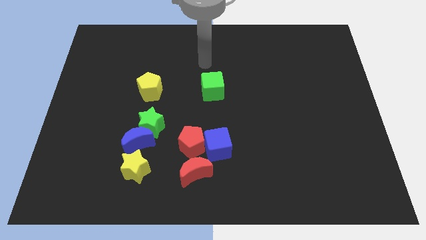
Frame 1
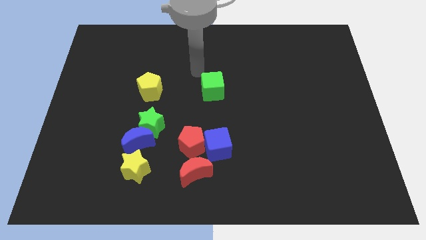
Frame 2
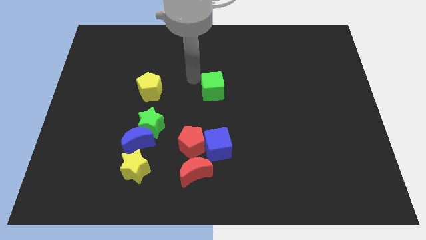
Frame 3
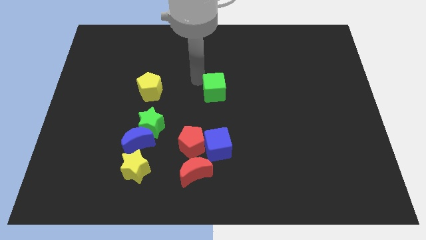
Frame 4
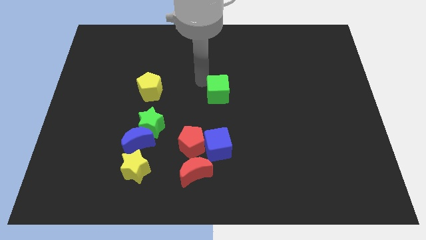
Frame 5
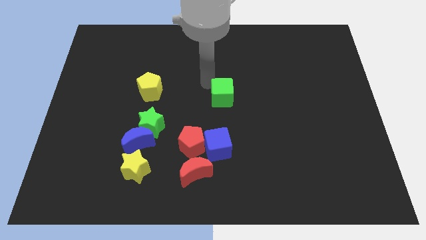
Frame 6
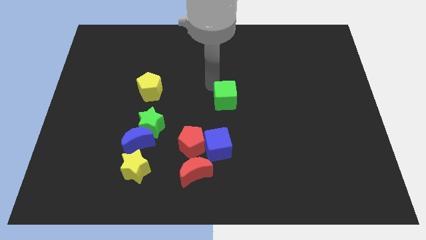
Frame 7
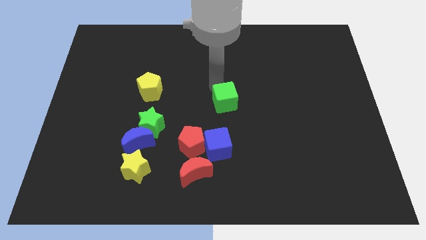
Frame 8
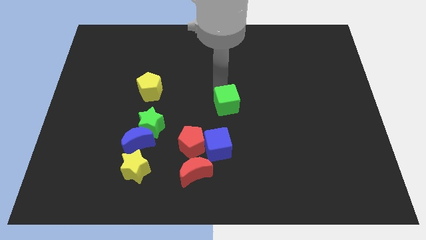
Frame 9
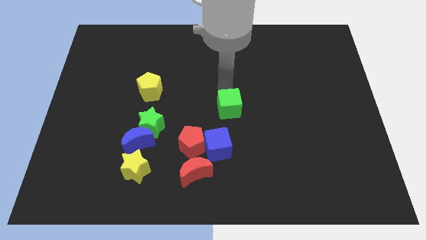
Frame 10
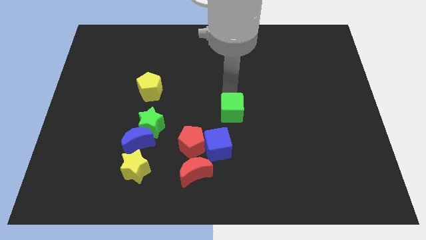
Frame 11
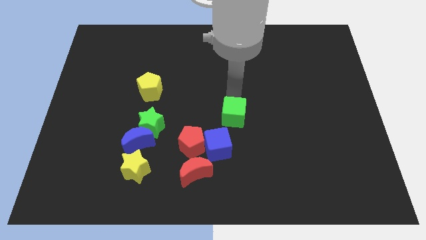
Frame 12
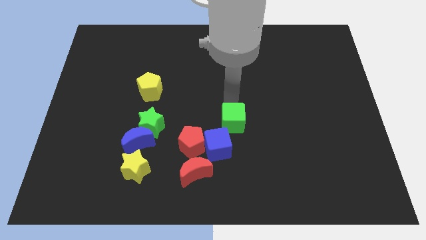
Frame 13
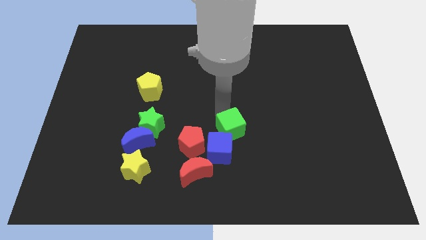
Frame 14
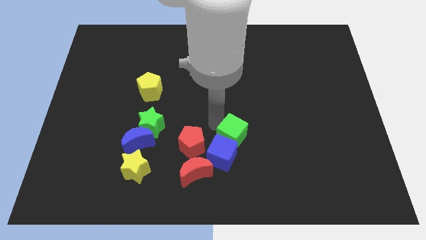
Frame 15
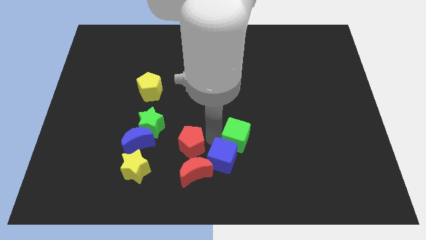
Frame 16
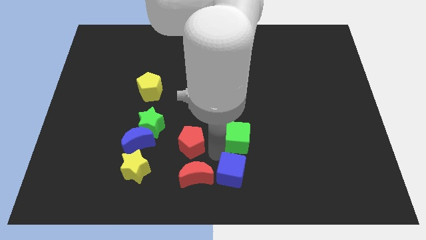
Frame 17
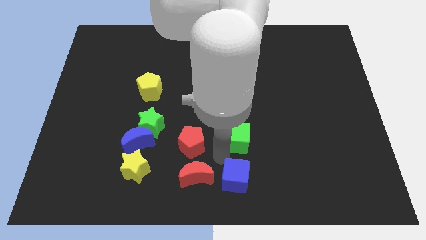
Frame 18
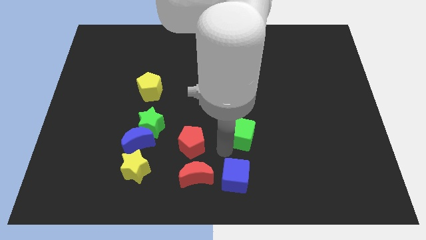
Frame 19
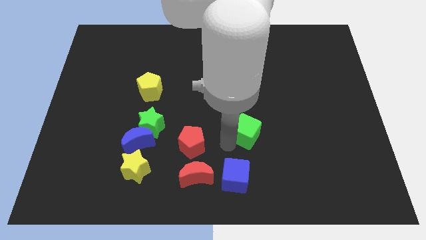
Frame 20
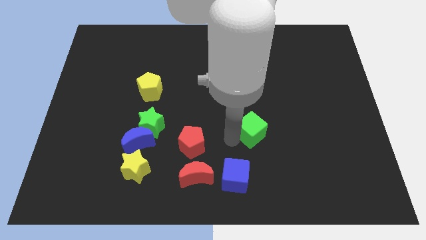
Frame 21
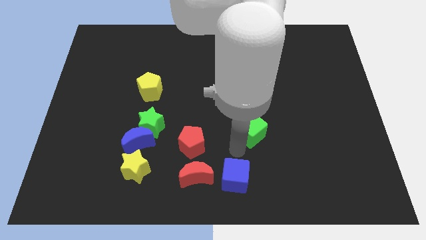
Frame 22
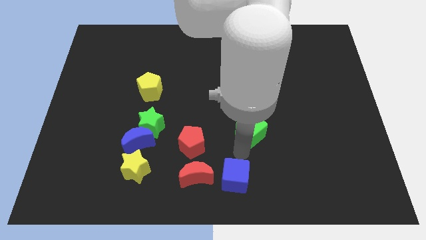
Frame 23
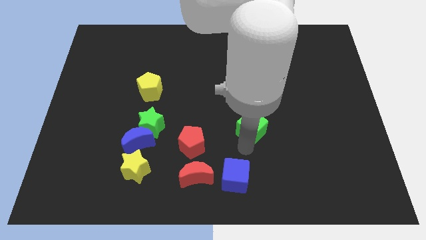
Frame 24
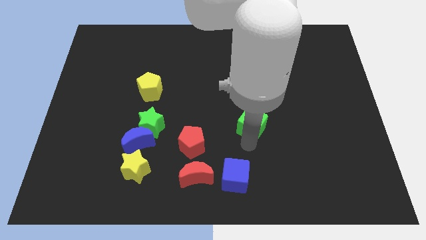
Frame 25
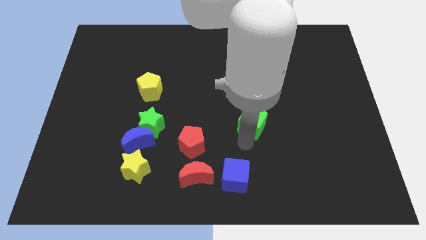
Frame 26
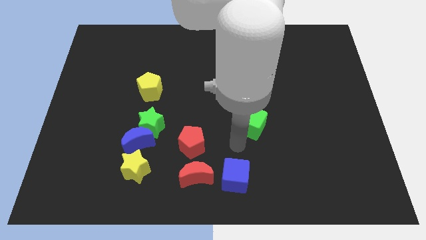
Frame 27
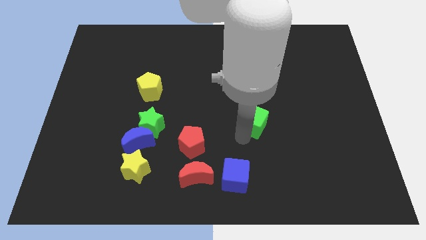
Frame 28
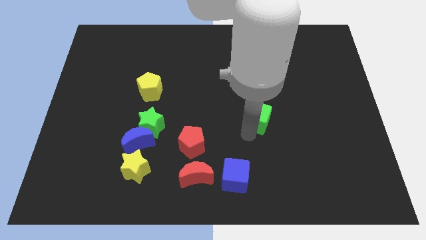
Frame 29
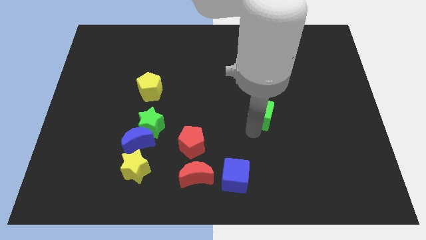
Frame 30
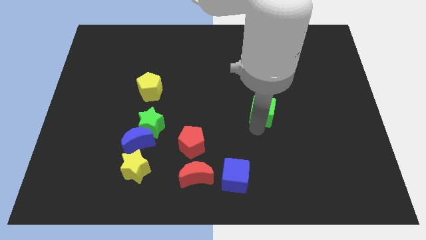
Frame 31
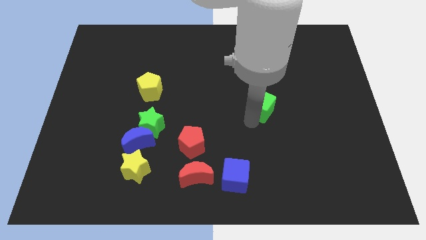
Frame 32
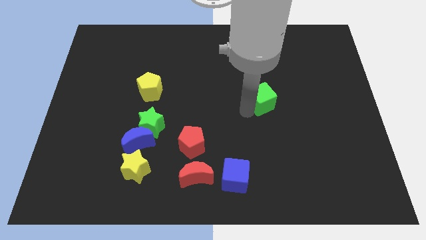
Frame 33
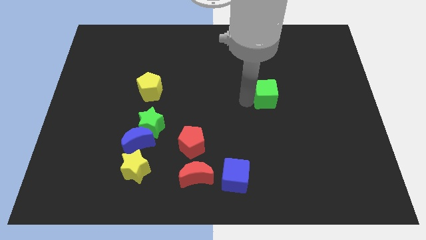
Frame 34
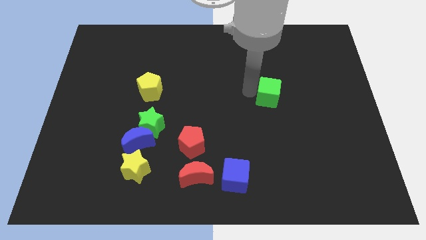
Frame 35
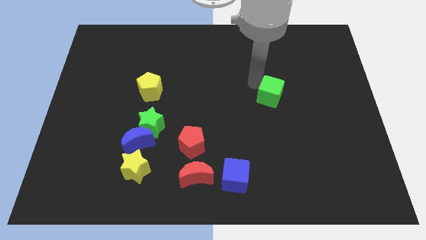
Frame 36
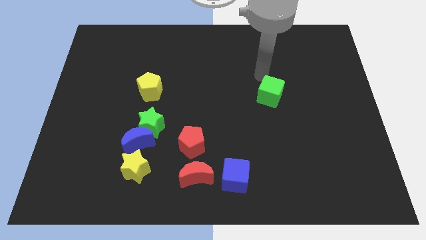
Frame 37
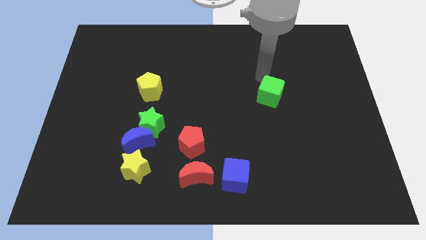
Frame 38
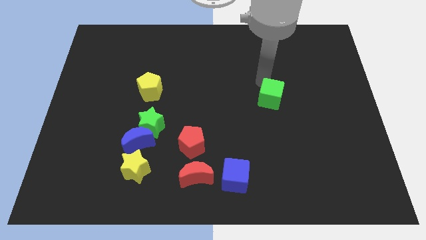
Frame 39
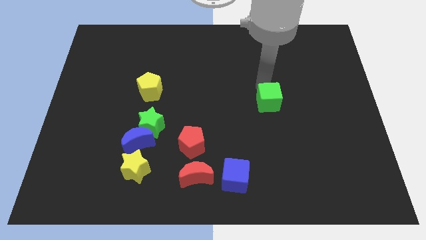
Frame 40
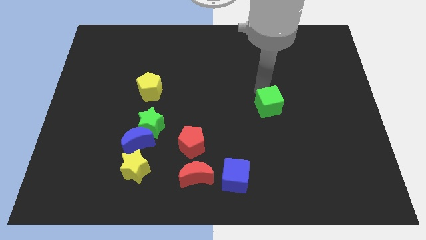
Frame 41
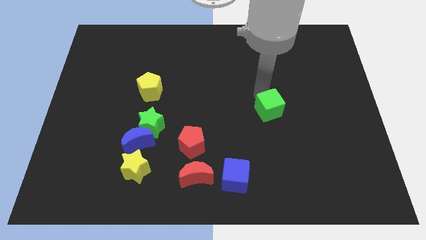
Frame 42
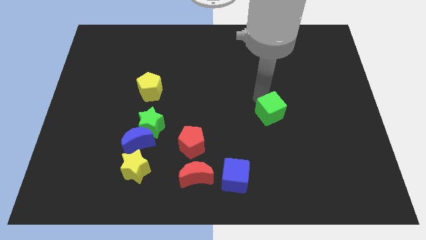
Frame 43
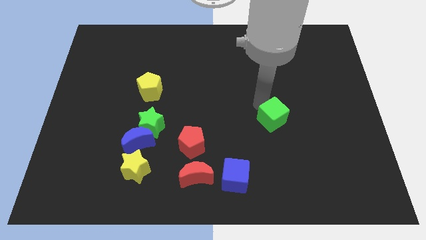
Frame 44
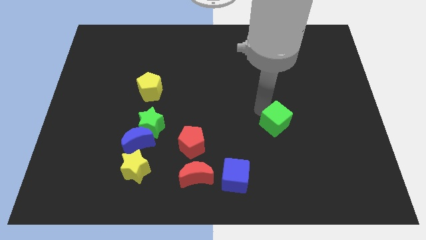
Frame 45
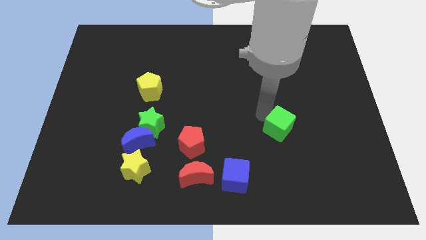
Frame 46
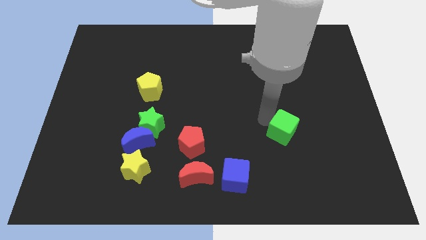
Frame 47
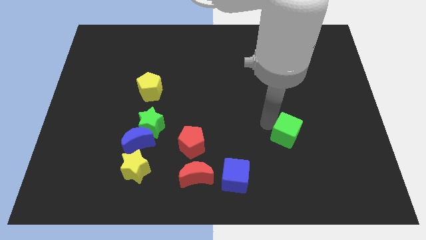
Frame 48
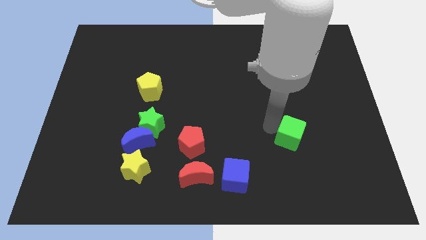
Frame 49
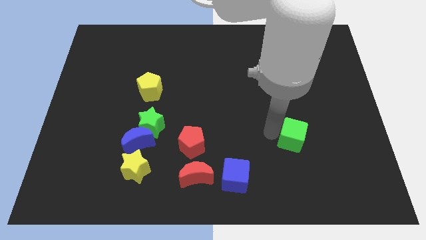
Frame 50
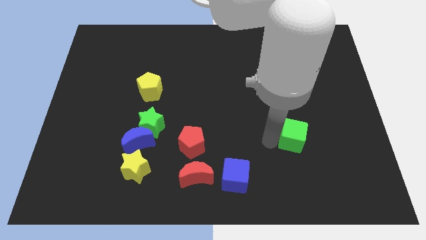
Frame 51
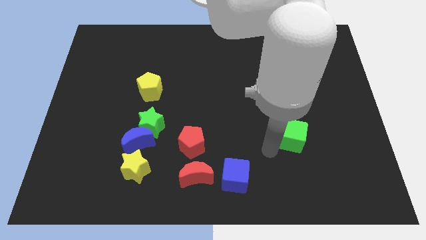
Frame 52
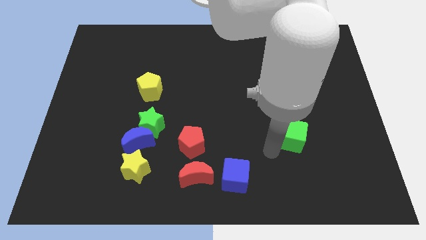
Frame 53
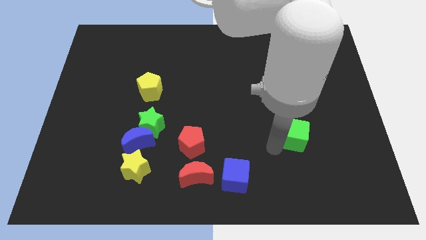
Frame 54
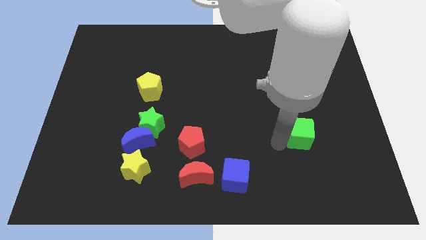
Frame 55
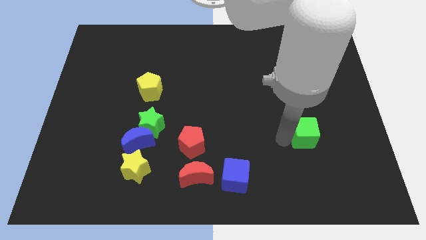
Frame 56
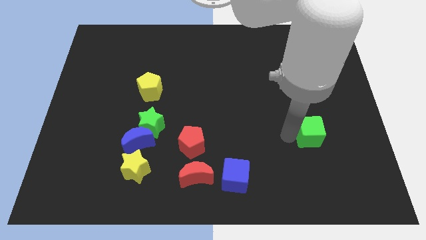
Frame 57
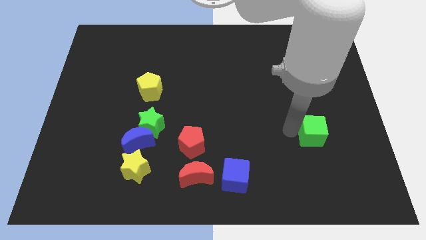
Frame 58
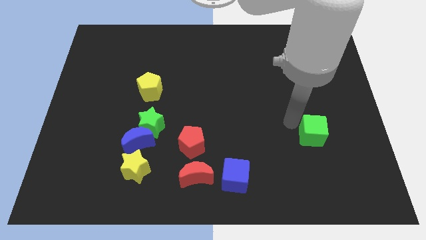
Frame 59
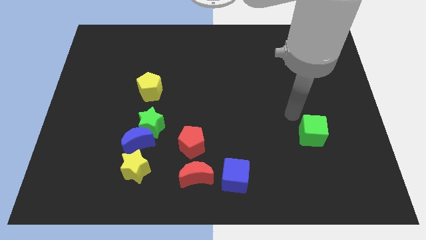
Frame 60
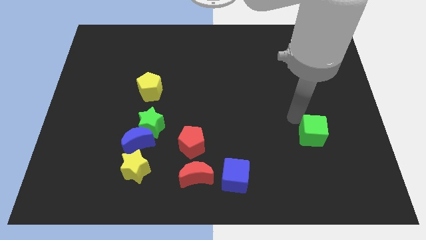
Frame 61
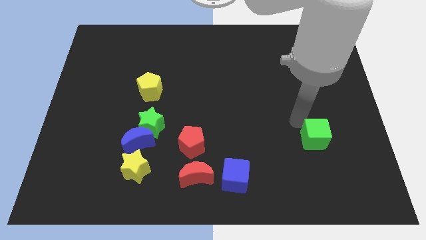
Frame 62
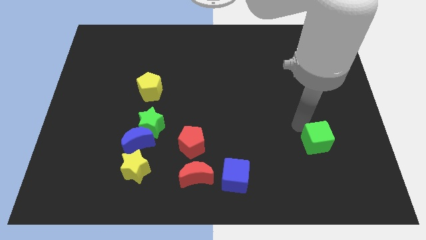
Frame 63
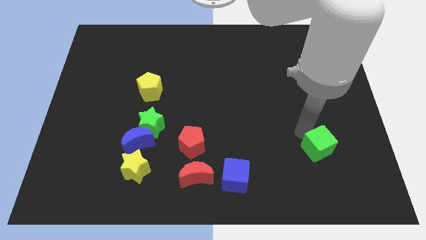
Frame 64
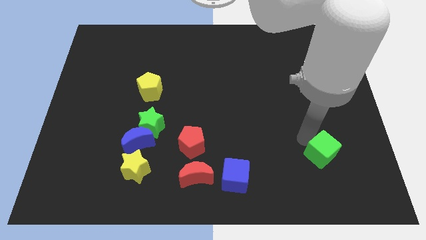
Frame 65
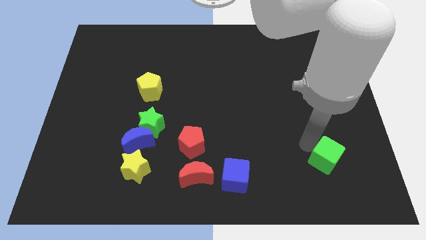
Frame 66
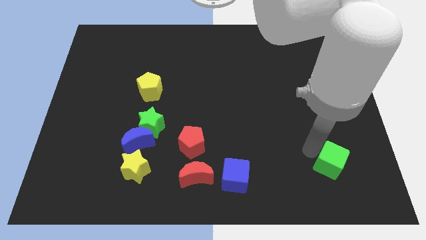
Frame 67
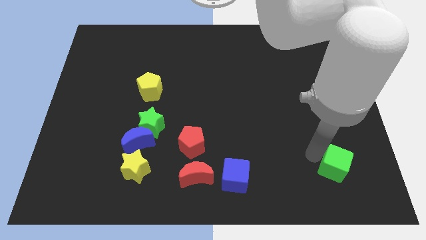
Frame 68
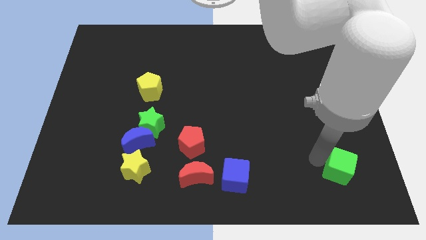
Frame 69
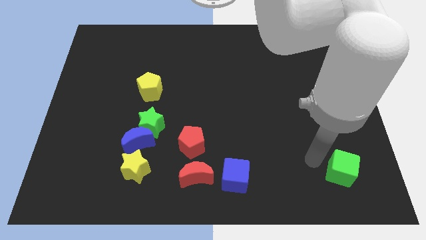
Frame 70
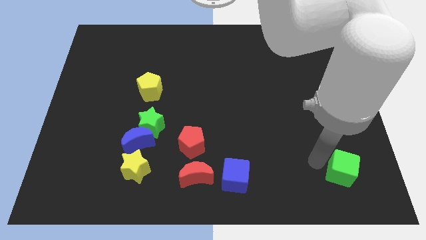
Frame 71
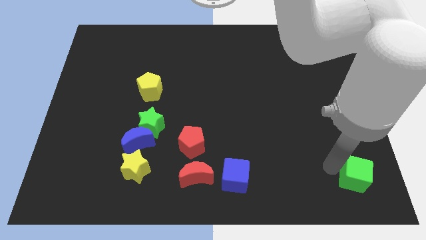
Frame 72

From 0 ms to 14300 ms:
put the green cube to the bottom right of the board
